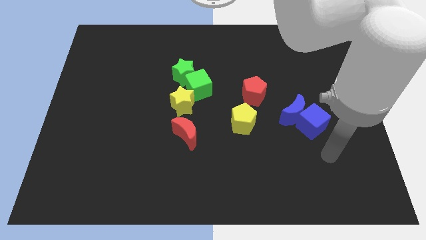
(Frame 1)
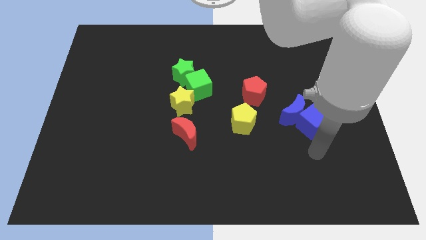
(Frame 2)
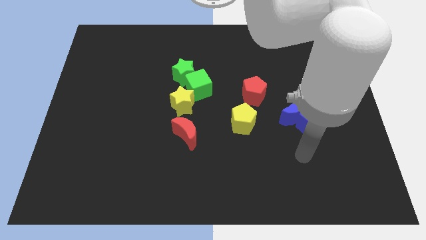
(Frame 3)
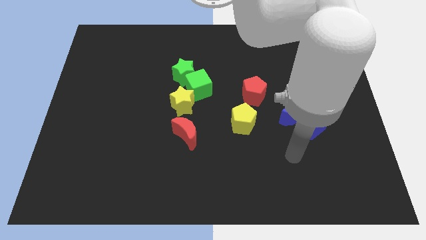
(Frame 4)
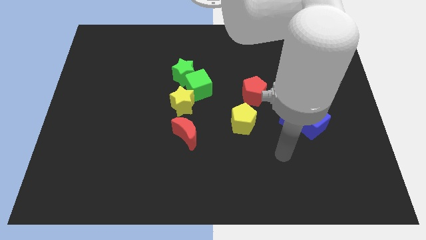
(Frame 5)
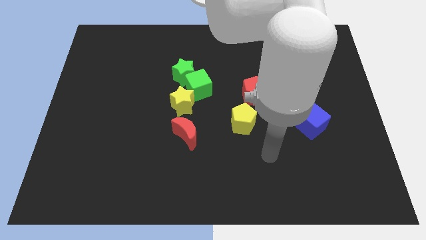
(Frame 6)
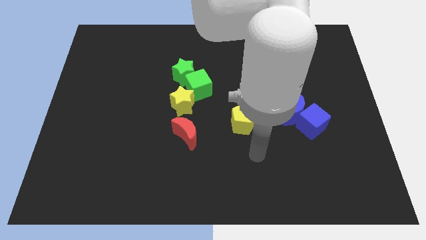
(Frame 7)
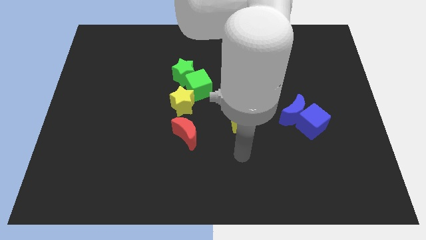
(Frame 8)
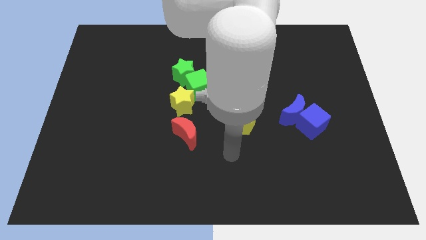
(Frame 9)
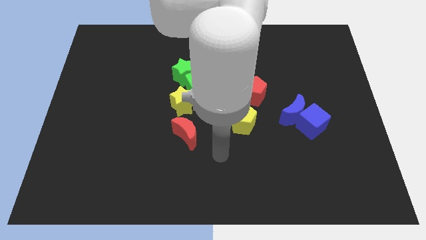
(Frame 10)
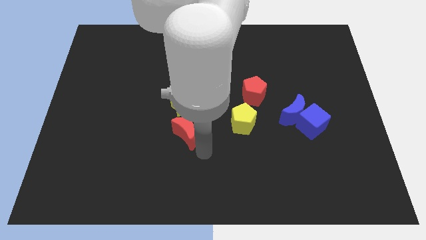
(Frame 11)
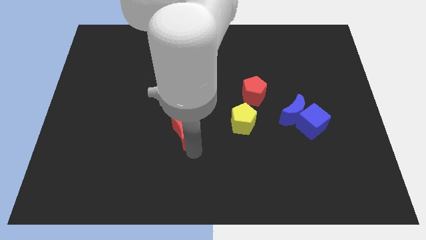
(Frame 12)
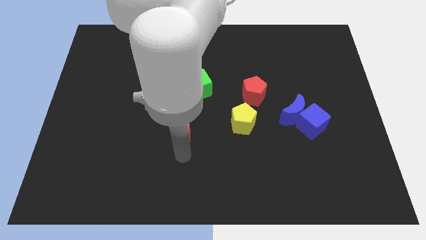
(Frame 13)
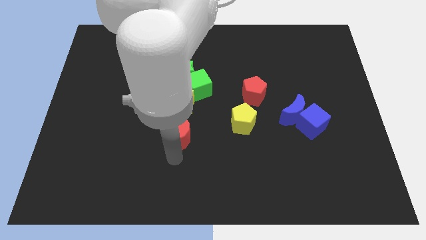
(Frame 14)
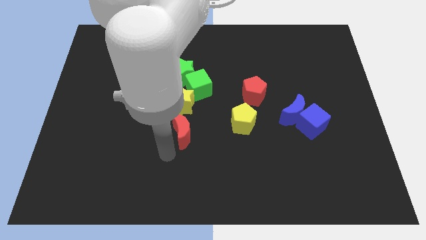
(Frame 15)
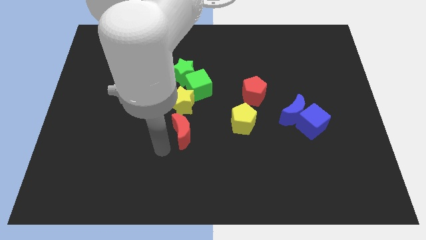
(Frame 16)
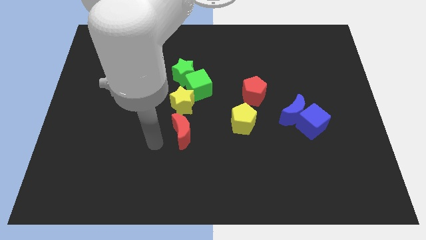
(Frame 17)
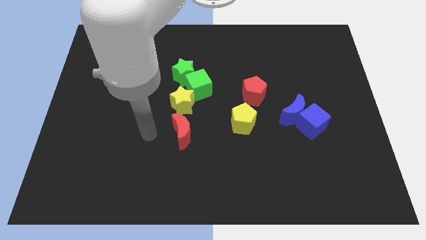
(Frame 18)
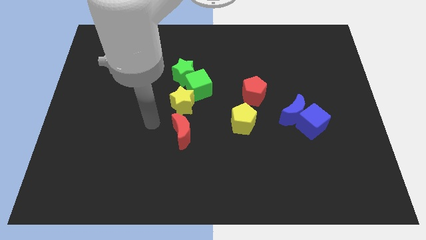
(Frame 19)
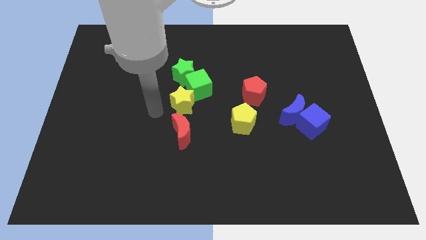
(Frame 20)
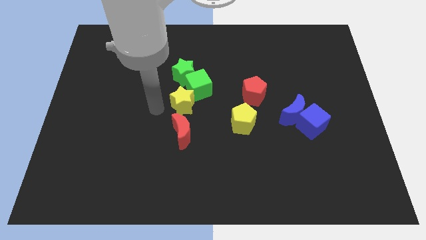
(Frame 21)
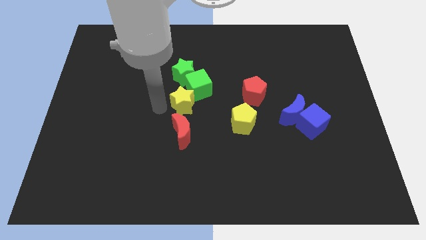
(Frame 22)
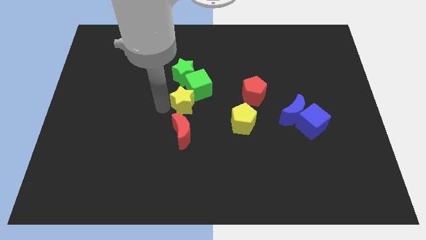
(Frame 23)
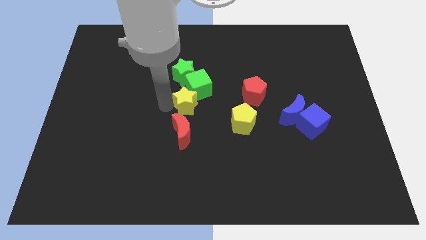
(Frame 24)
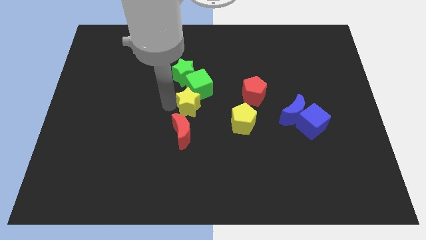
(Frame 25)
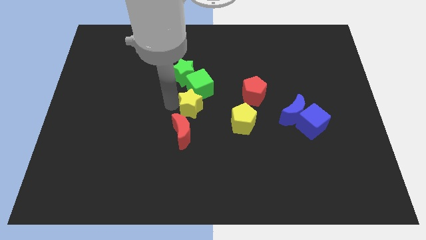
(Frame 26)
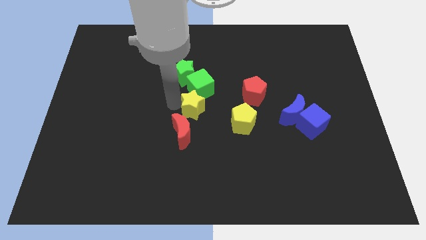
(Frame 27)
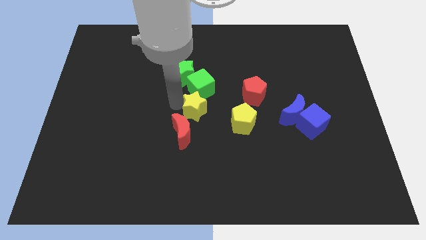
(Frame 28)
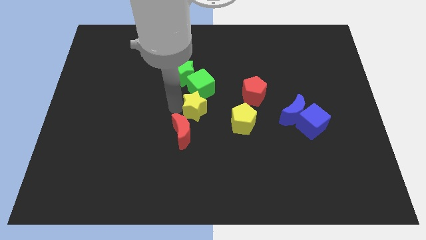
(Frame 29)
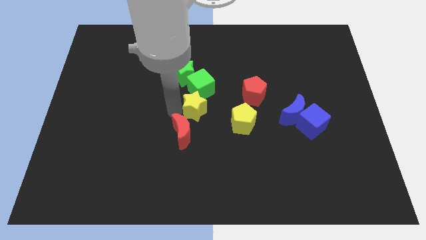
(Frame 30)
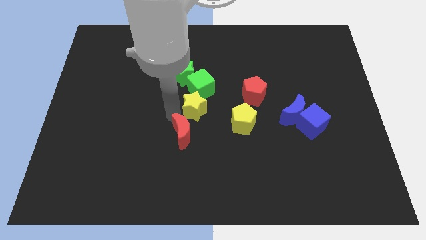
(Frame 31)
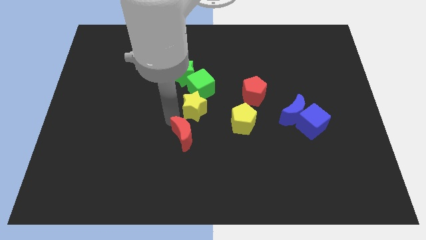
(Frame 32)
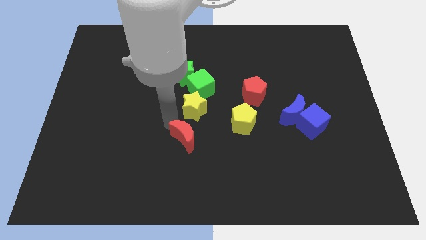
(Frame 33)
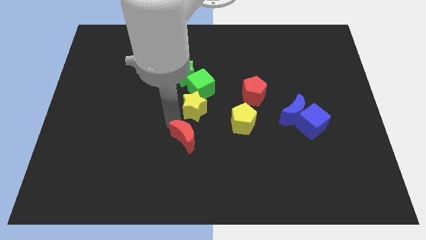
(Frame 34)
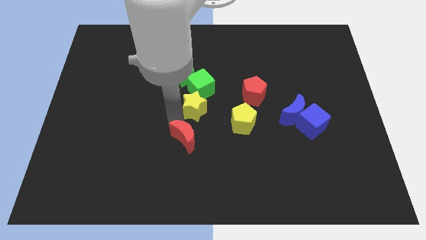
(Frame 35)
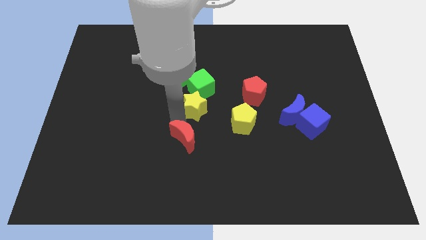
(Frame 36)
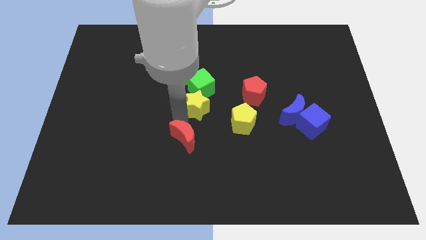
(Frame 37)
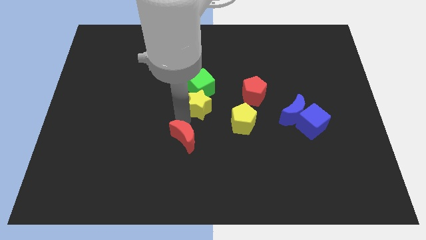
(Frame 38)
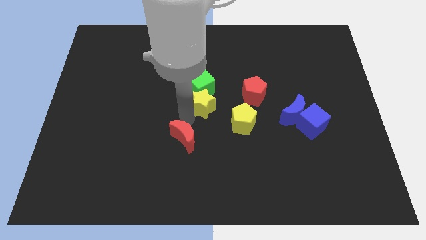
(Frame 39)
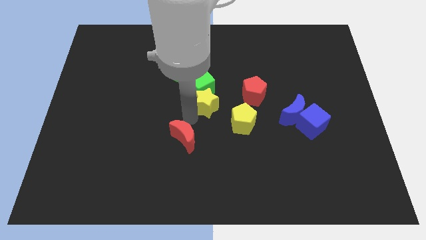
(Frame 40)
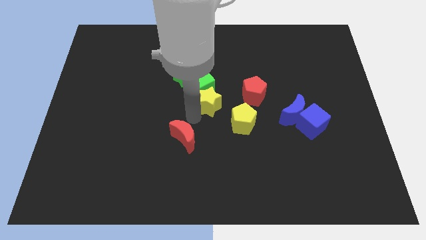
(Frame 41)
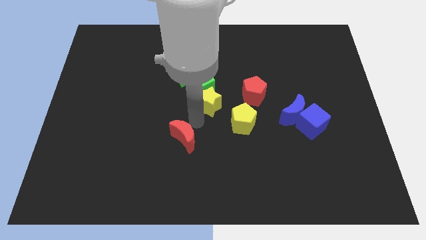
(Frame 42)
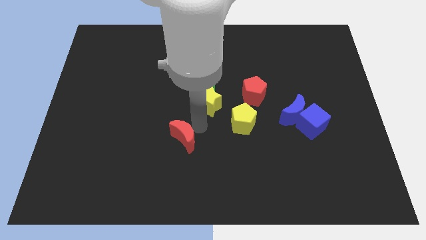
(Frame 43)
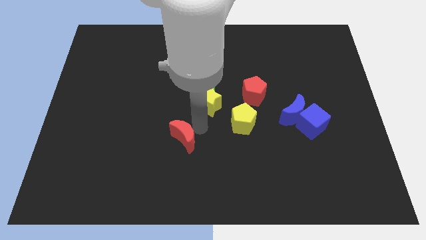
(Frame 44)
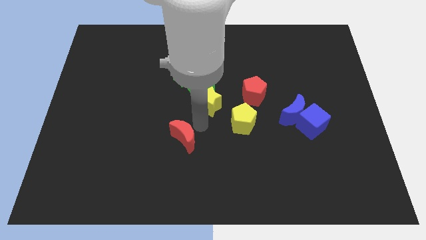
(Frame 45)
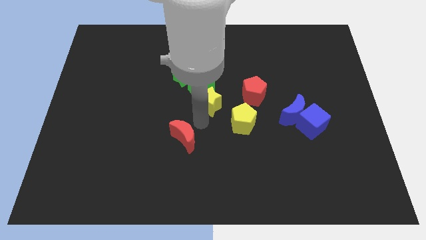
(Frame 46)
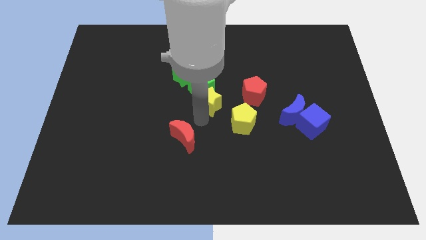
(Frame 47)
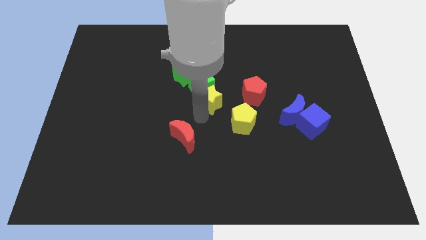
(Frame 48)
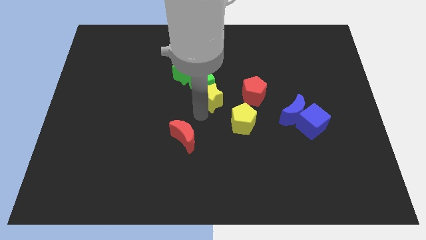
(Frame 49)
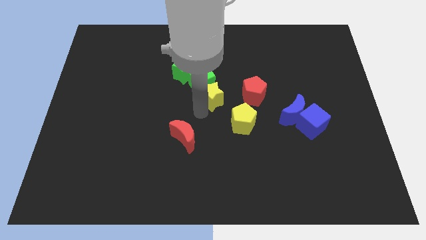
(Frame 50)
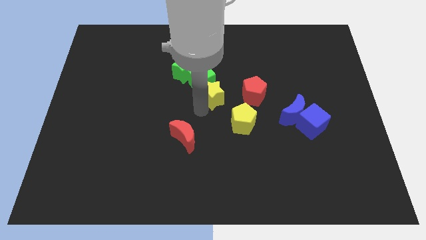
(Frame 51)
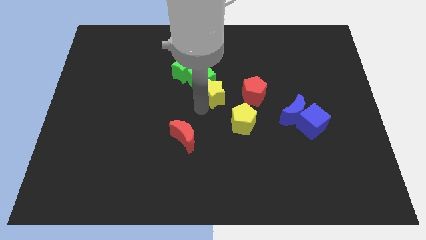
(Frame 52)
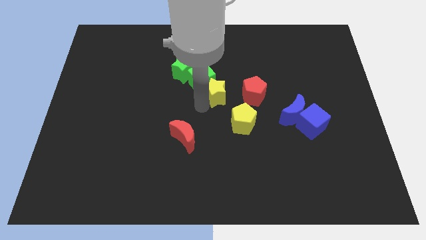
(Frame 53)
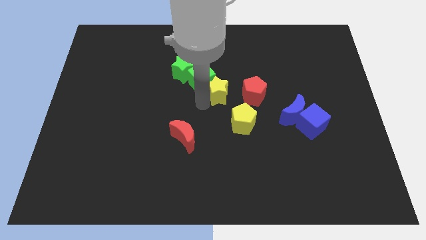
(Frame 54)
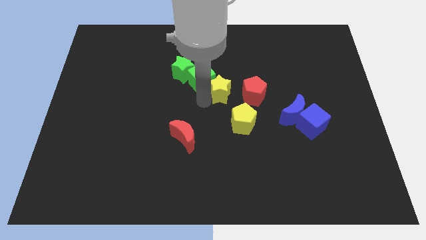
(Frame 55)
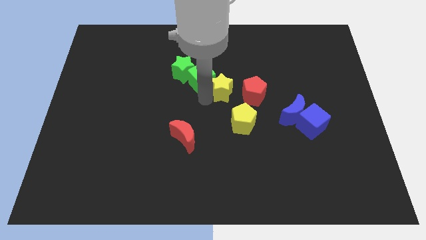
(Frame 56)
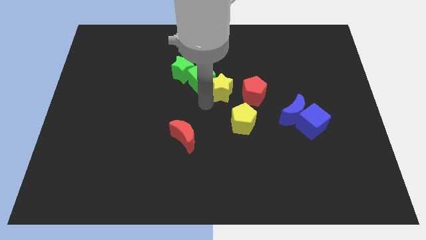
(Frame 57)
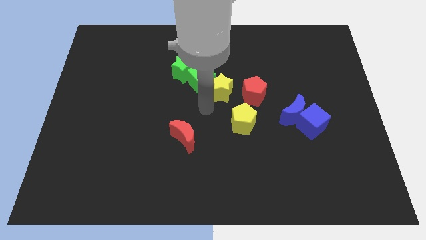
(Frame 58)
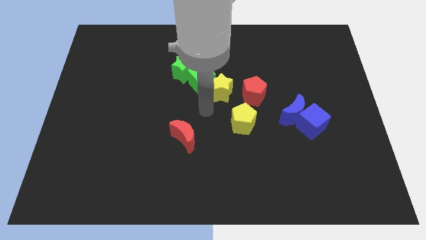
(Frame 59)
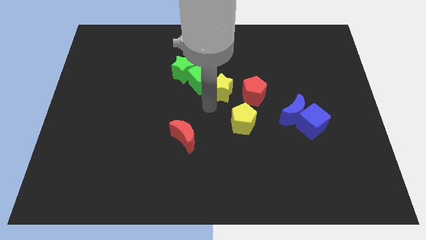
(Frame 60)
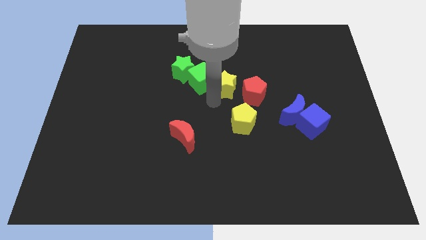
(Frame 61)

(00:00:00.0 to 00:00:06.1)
slide the yellow star to the top left of the red pentagon
